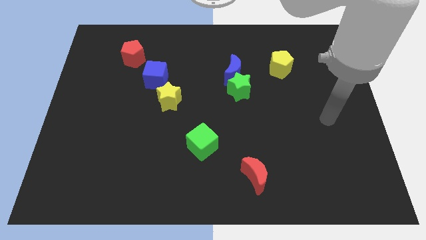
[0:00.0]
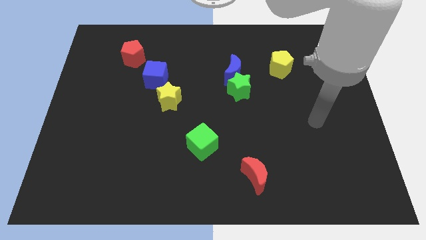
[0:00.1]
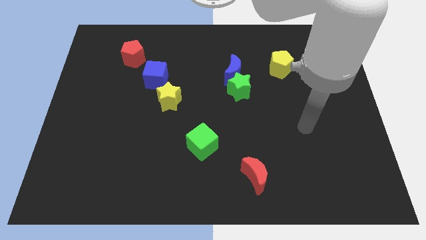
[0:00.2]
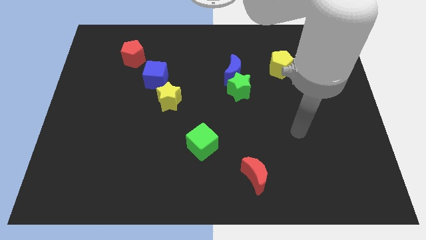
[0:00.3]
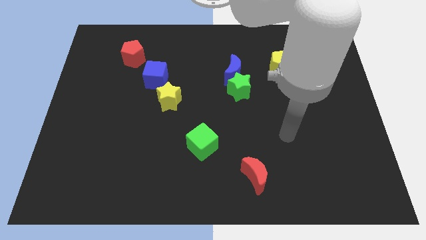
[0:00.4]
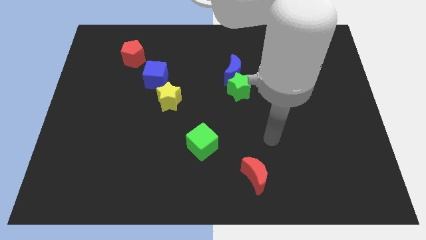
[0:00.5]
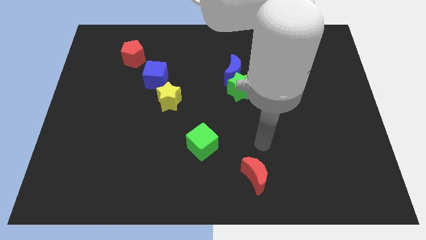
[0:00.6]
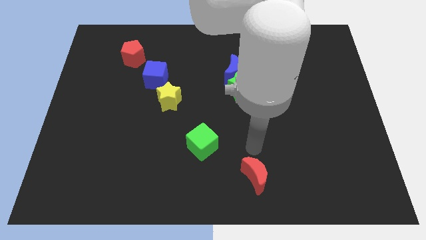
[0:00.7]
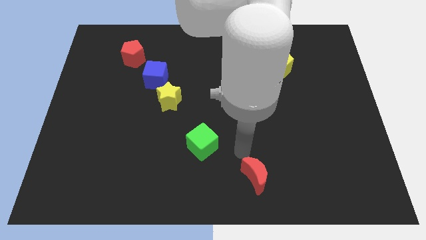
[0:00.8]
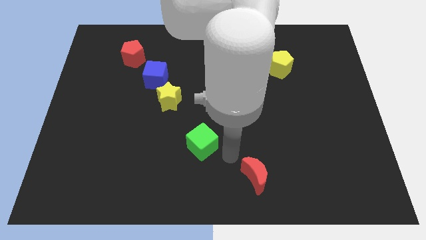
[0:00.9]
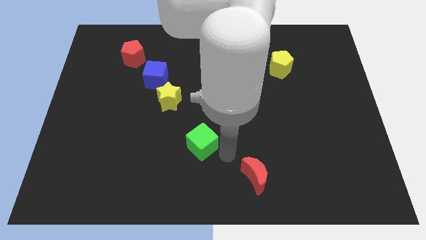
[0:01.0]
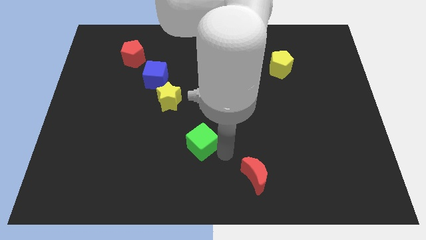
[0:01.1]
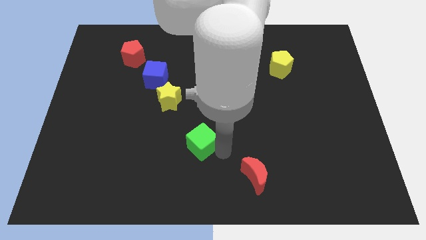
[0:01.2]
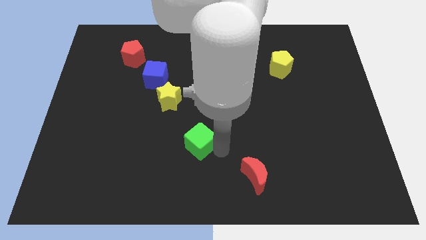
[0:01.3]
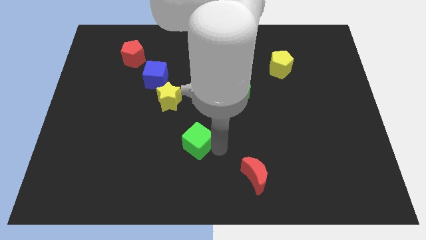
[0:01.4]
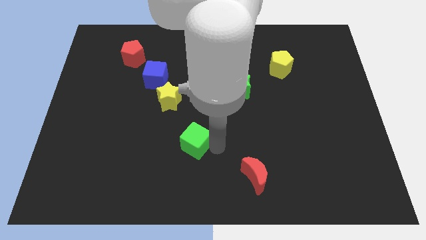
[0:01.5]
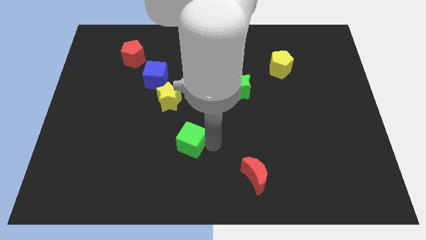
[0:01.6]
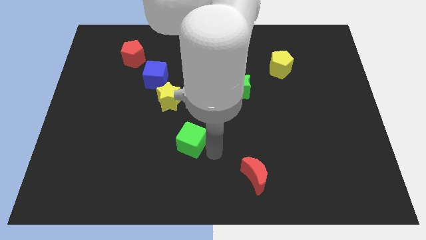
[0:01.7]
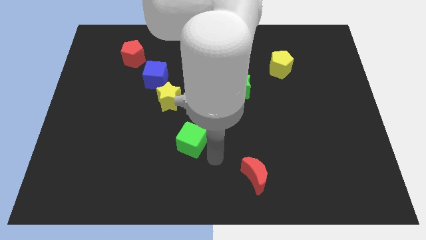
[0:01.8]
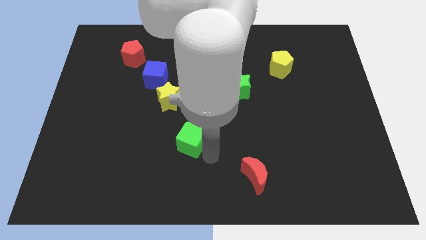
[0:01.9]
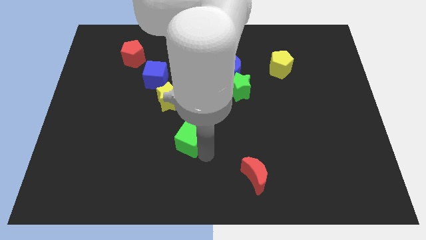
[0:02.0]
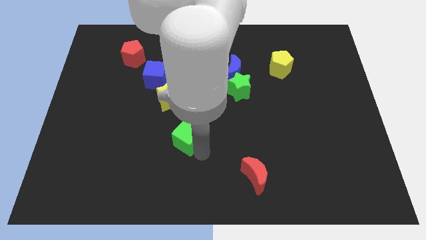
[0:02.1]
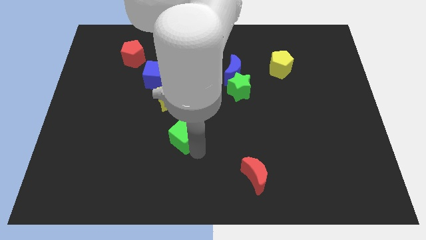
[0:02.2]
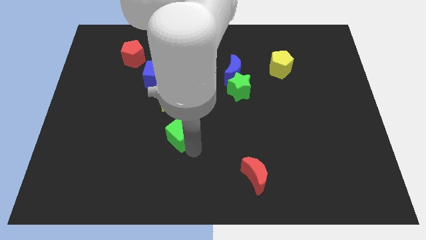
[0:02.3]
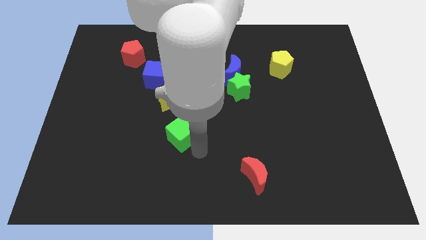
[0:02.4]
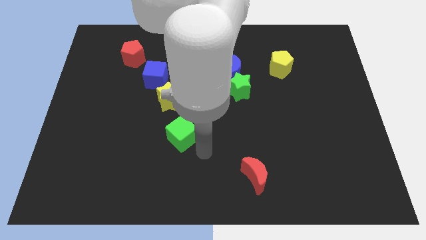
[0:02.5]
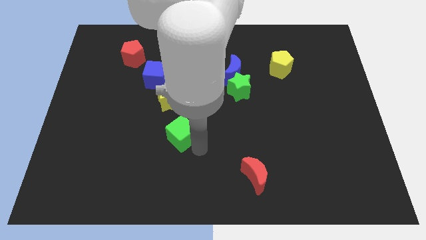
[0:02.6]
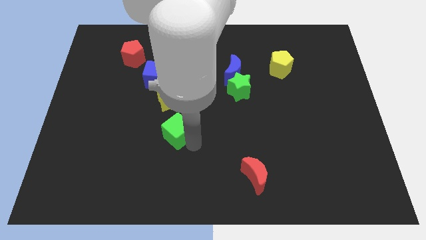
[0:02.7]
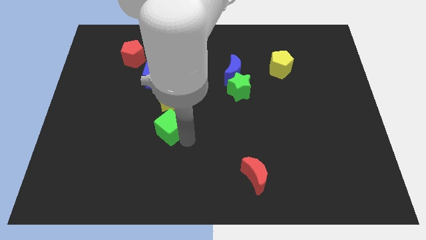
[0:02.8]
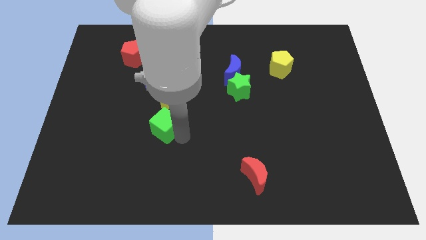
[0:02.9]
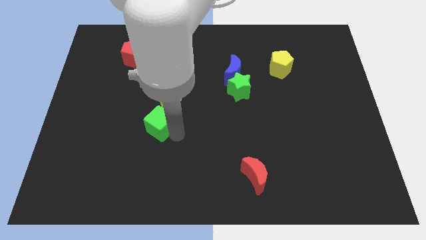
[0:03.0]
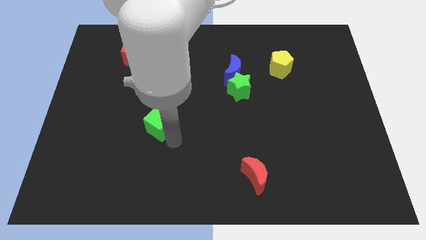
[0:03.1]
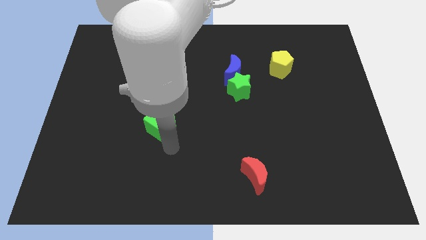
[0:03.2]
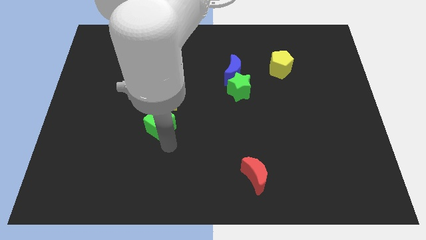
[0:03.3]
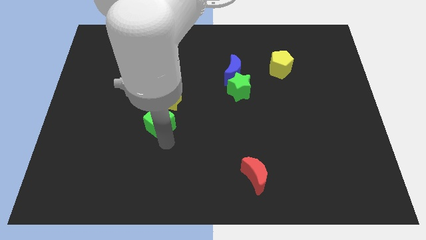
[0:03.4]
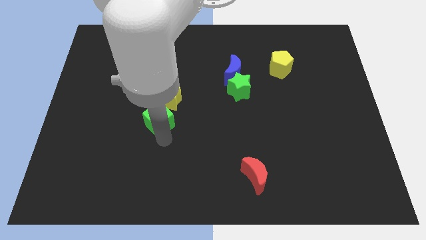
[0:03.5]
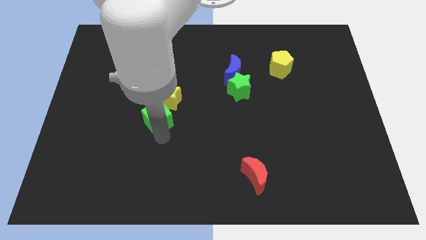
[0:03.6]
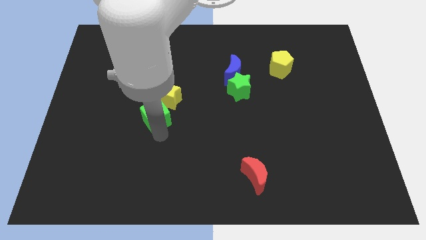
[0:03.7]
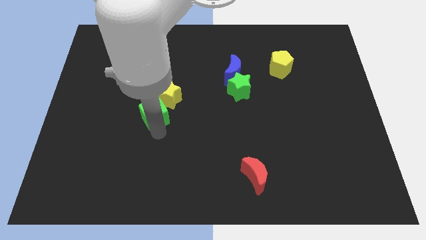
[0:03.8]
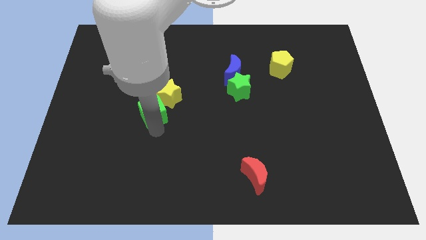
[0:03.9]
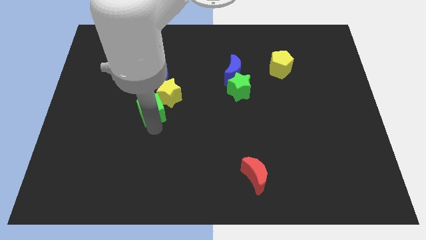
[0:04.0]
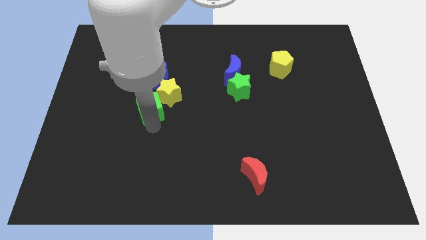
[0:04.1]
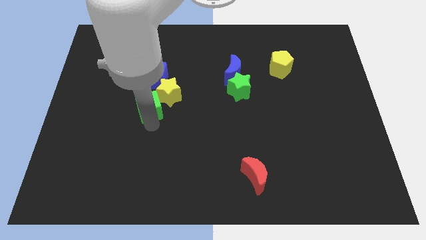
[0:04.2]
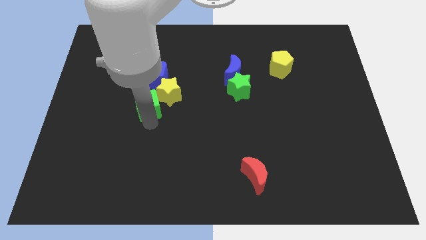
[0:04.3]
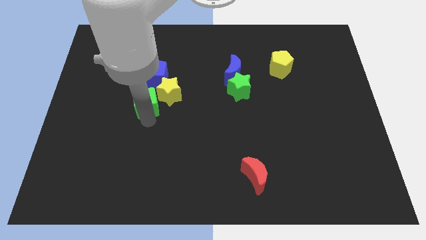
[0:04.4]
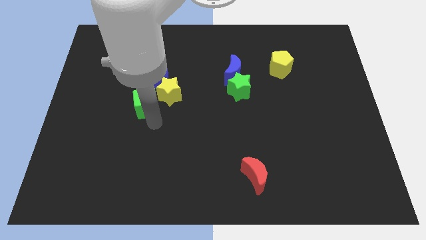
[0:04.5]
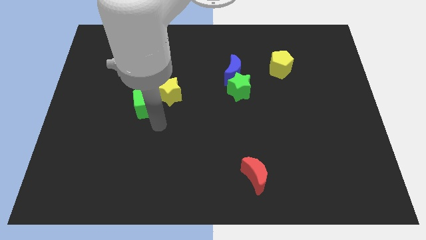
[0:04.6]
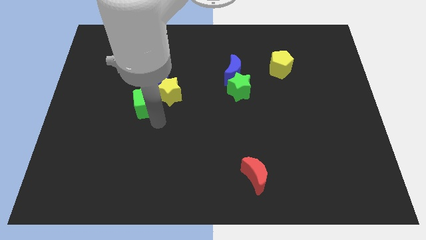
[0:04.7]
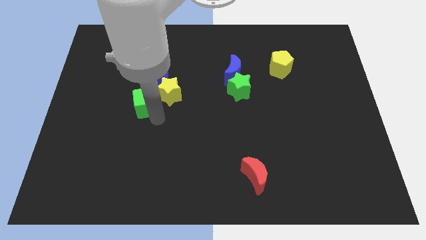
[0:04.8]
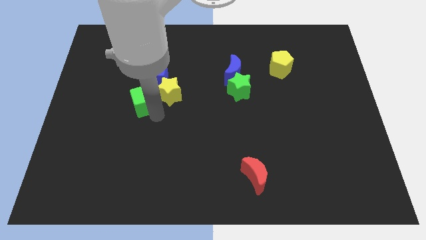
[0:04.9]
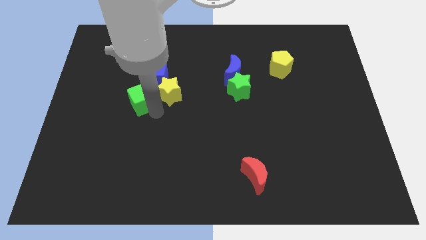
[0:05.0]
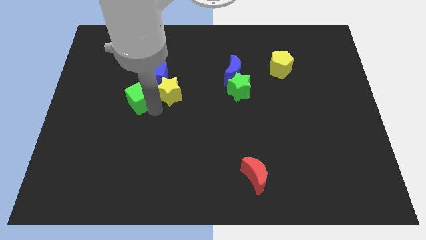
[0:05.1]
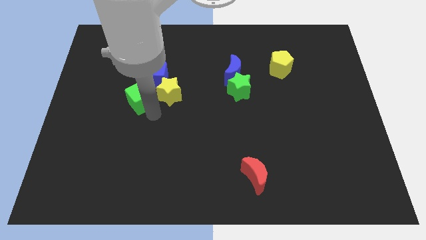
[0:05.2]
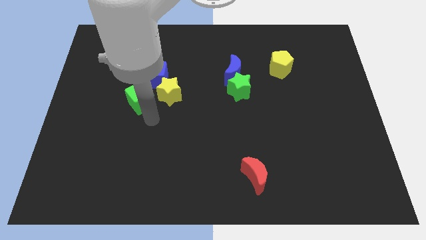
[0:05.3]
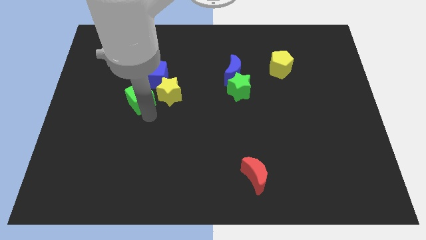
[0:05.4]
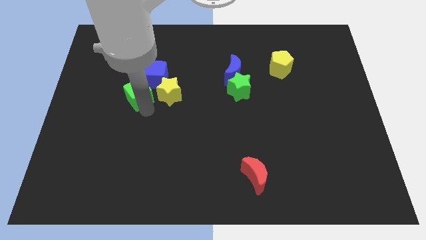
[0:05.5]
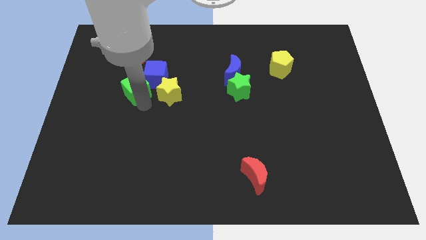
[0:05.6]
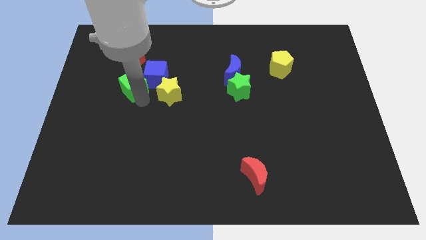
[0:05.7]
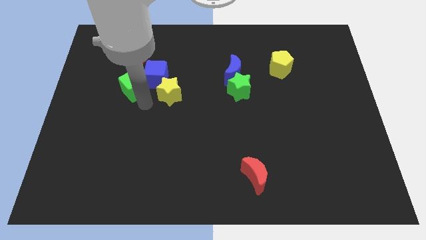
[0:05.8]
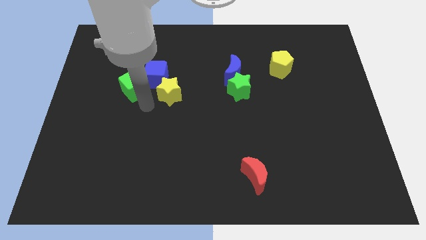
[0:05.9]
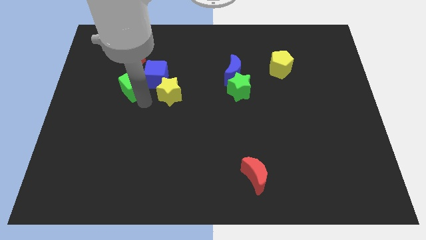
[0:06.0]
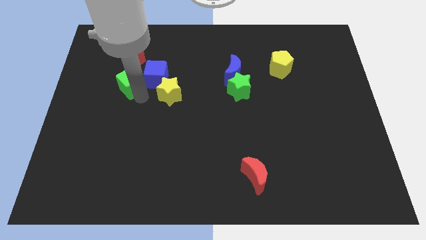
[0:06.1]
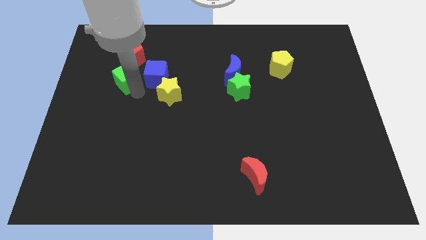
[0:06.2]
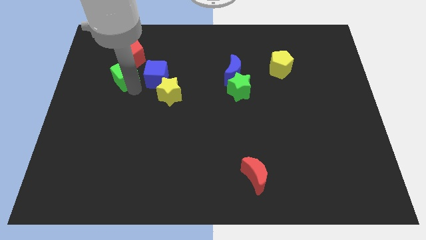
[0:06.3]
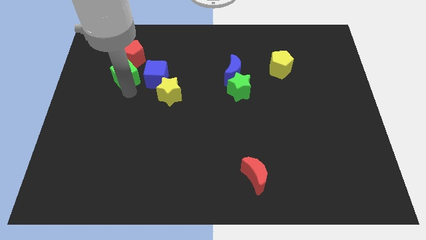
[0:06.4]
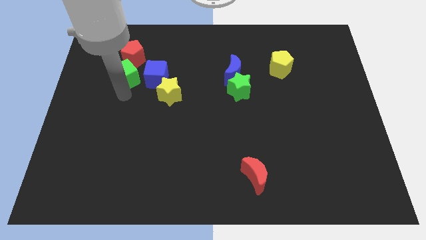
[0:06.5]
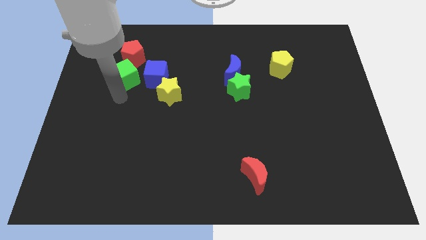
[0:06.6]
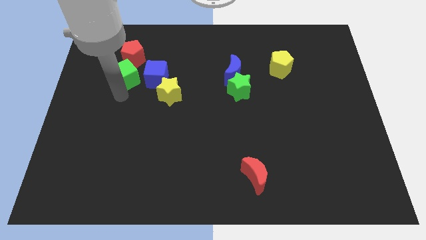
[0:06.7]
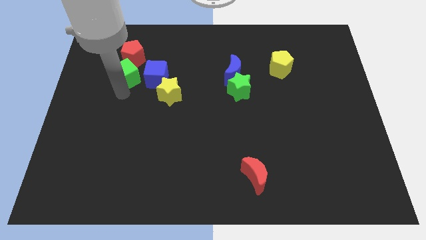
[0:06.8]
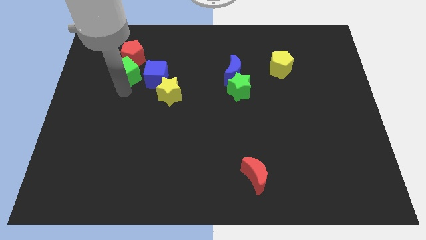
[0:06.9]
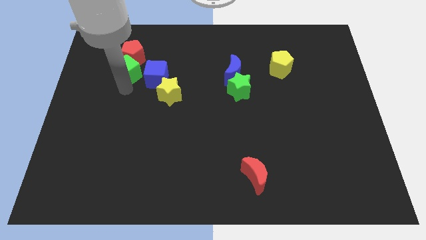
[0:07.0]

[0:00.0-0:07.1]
slide the green cube to the red pentagon
